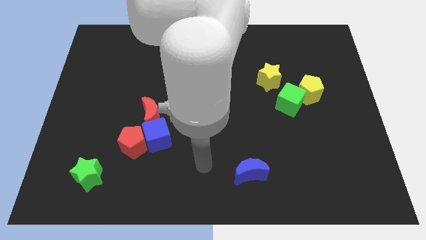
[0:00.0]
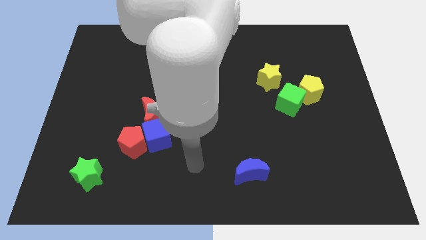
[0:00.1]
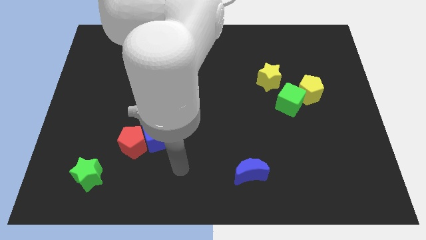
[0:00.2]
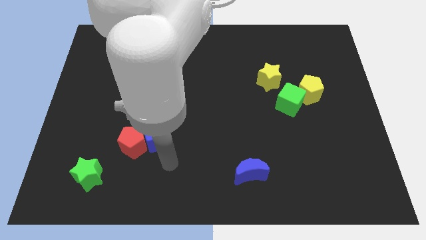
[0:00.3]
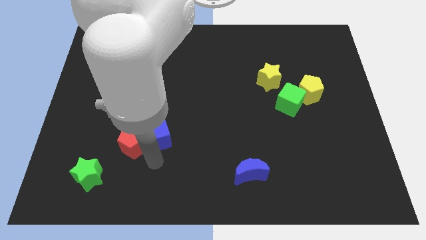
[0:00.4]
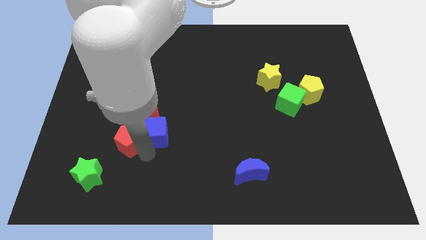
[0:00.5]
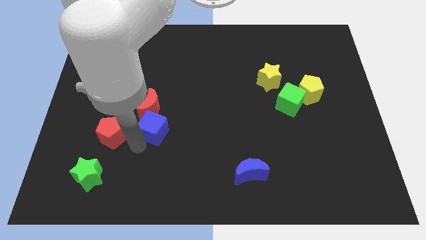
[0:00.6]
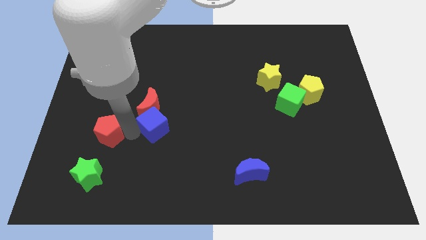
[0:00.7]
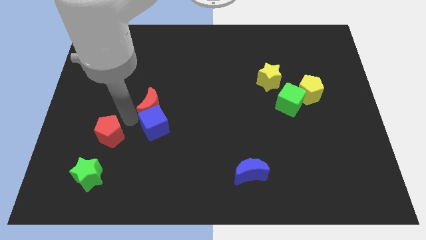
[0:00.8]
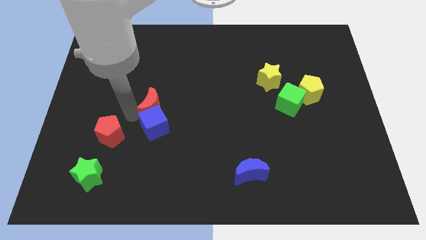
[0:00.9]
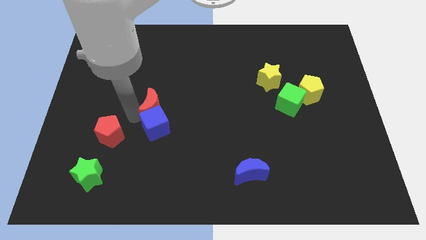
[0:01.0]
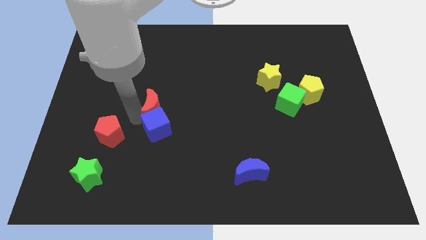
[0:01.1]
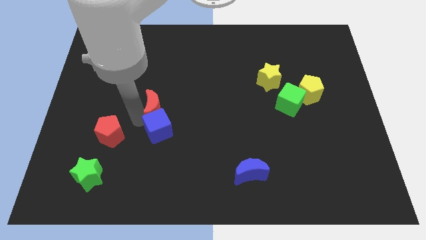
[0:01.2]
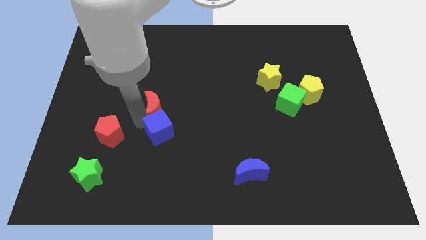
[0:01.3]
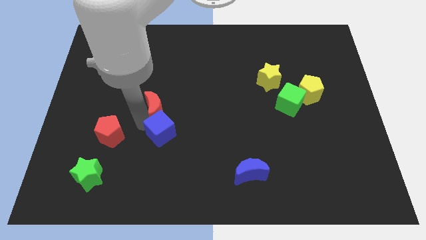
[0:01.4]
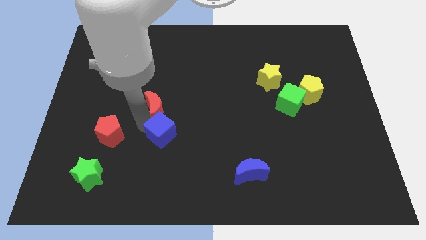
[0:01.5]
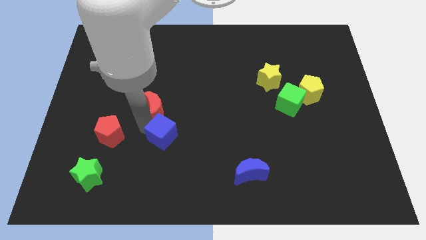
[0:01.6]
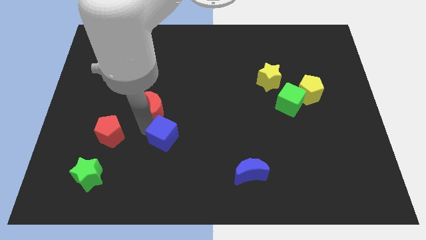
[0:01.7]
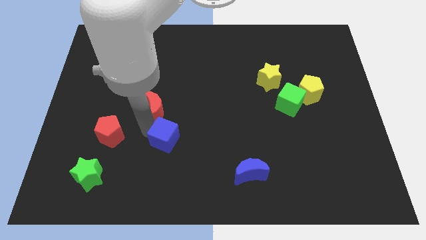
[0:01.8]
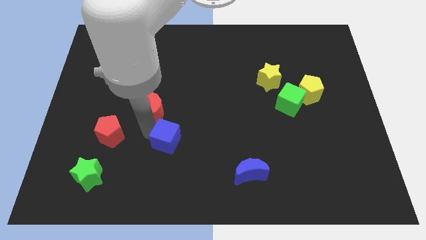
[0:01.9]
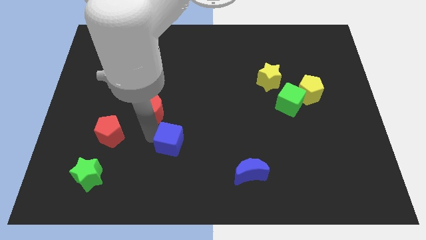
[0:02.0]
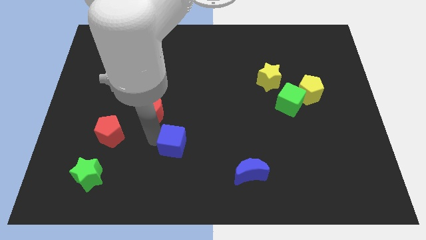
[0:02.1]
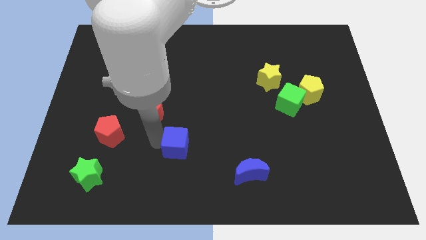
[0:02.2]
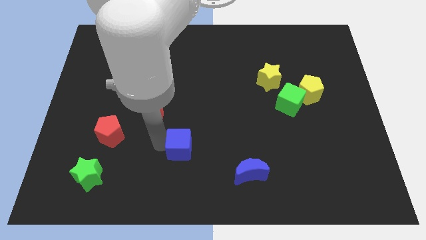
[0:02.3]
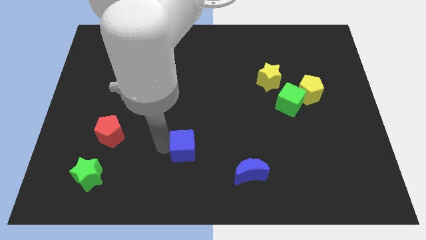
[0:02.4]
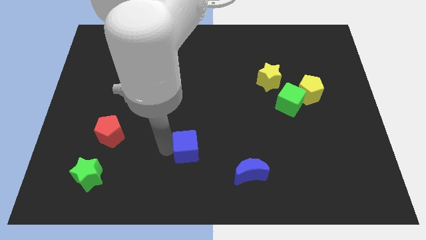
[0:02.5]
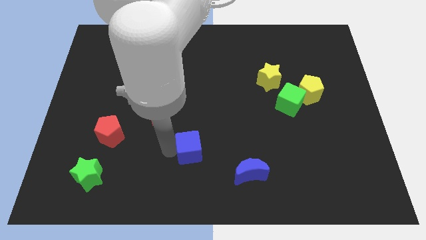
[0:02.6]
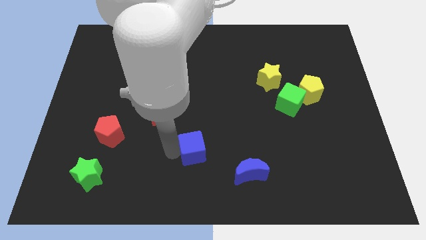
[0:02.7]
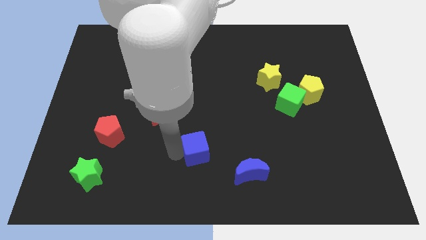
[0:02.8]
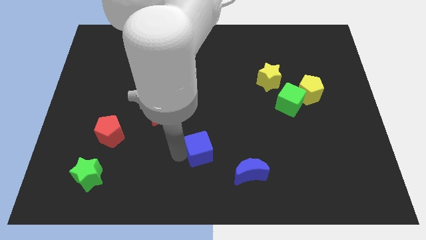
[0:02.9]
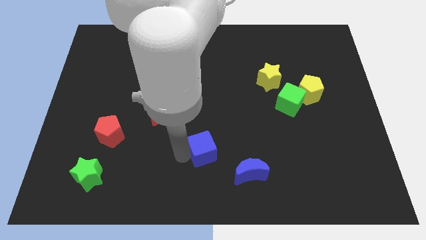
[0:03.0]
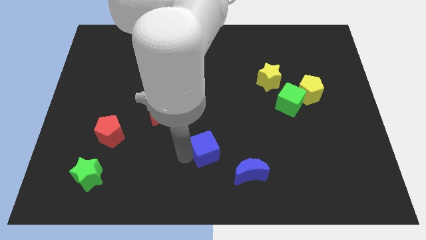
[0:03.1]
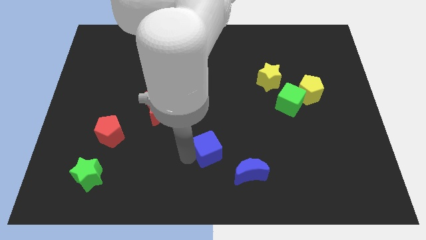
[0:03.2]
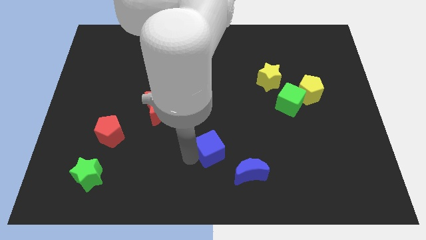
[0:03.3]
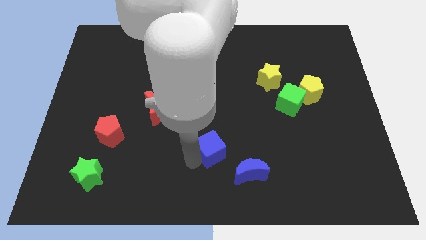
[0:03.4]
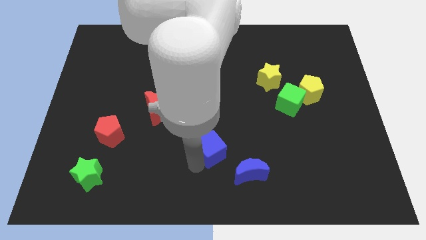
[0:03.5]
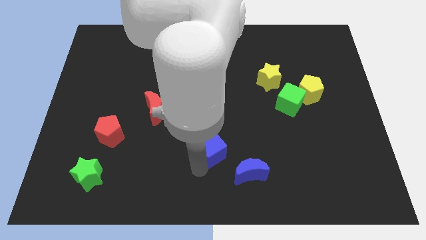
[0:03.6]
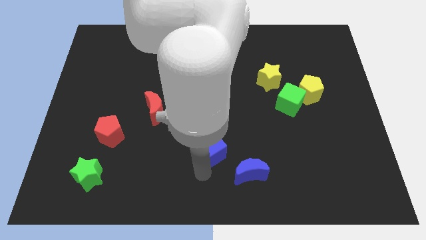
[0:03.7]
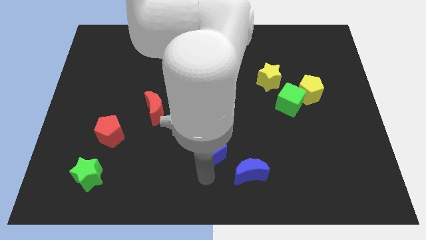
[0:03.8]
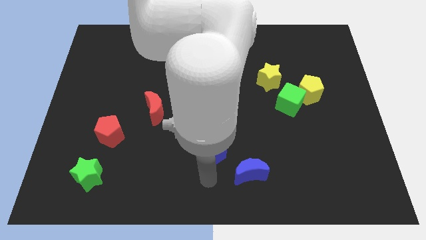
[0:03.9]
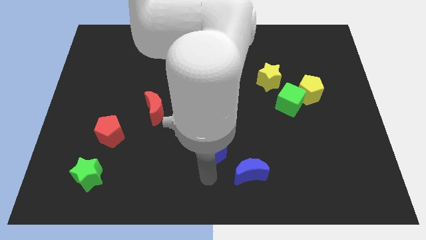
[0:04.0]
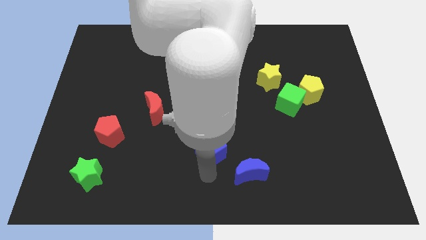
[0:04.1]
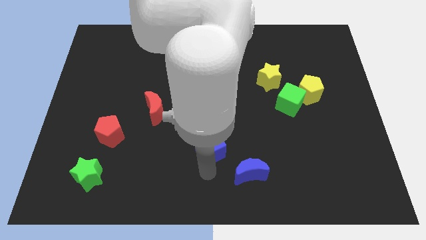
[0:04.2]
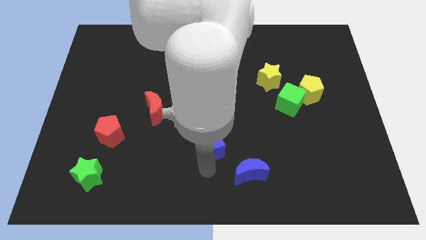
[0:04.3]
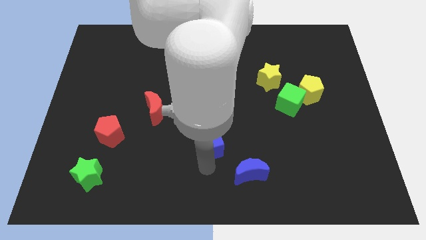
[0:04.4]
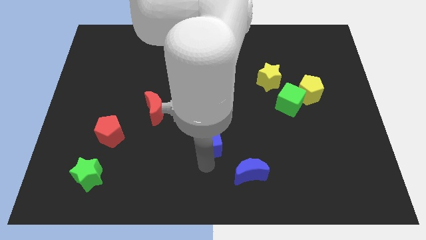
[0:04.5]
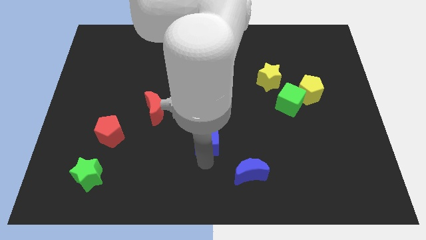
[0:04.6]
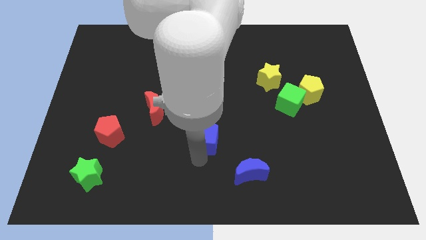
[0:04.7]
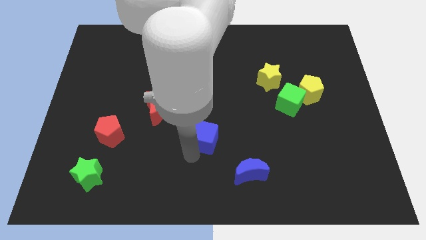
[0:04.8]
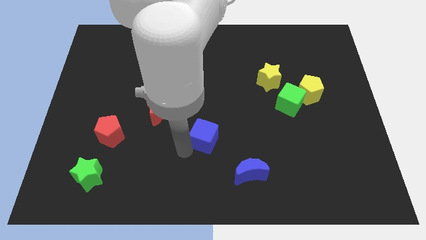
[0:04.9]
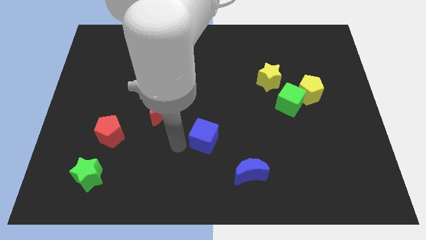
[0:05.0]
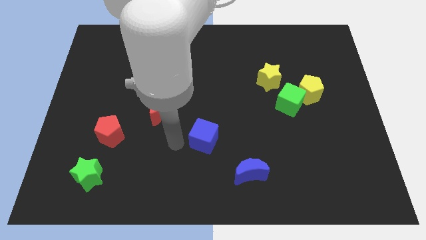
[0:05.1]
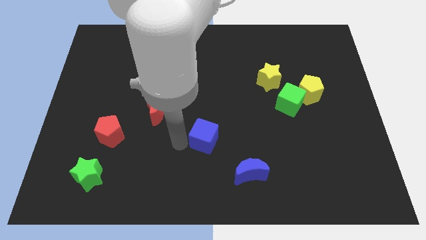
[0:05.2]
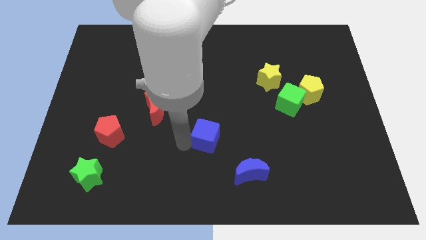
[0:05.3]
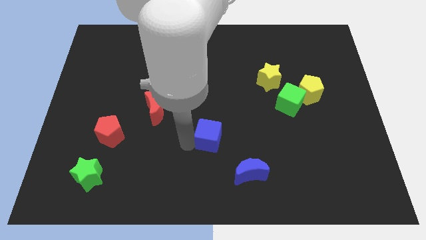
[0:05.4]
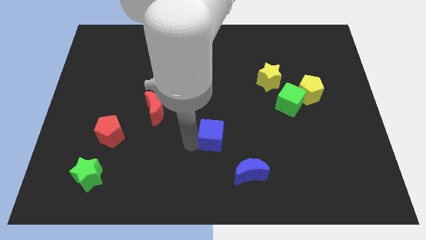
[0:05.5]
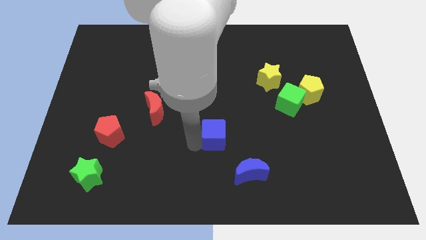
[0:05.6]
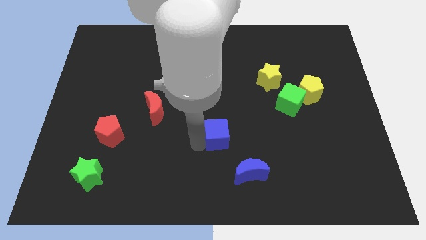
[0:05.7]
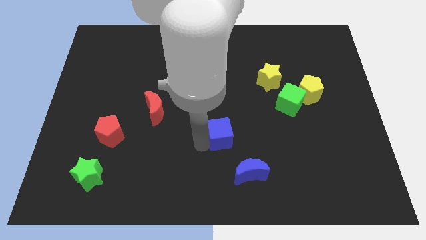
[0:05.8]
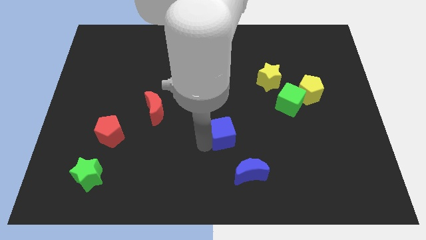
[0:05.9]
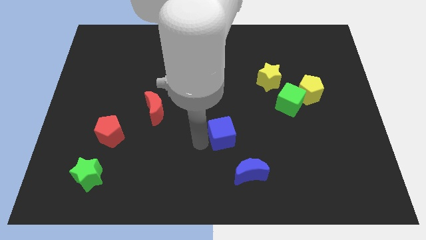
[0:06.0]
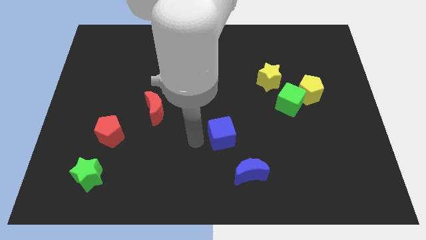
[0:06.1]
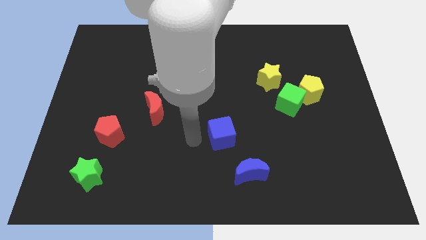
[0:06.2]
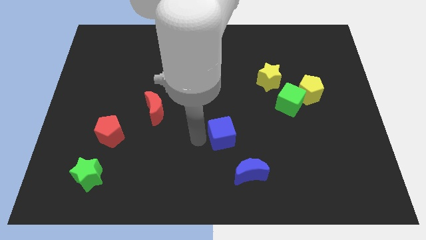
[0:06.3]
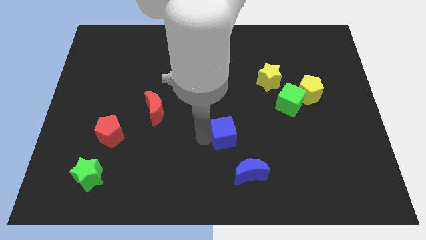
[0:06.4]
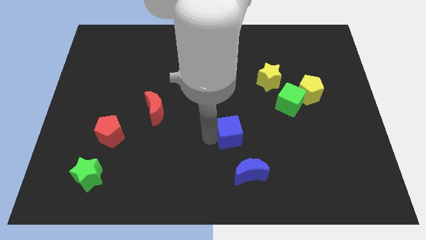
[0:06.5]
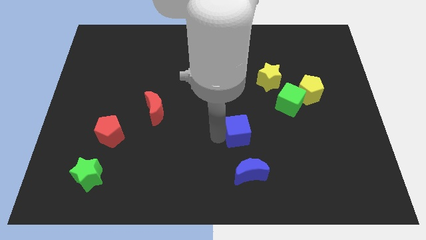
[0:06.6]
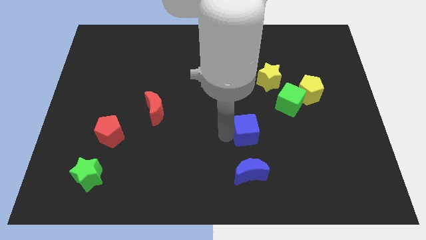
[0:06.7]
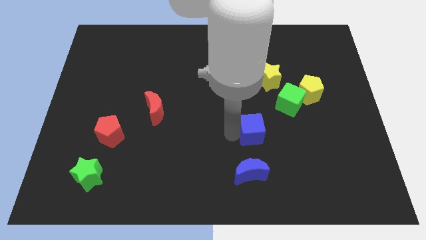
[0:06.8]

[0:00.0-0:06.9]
move the blue cube right

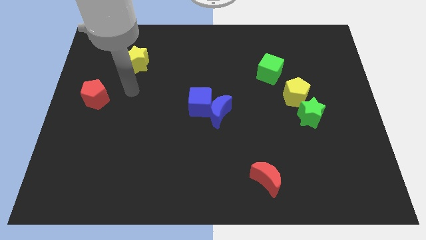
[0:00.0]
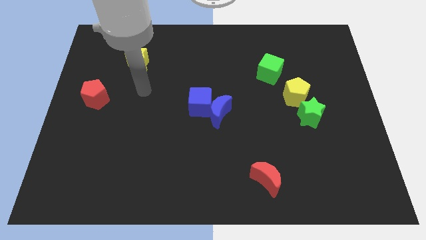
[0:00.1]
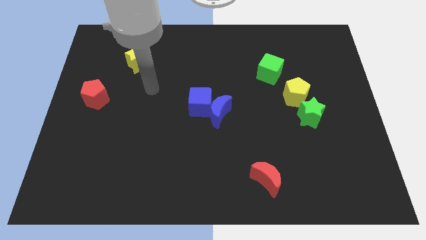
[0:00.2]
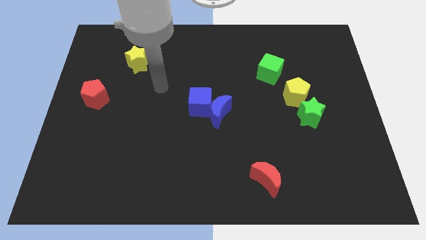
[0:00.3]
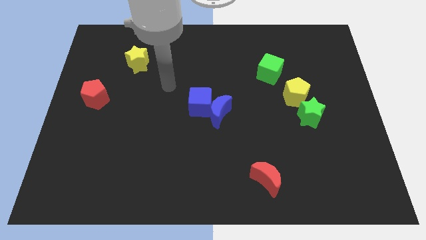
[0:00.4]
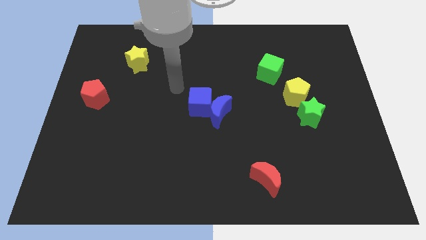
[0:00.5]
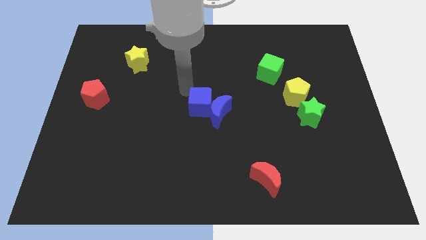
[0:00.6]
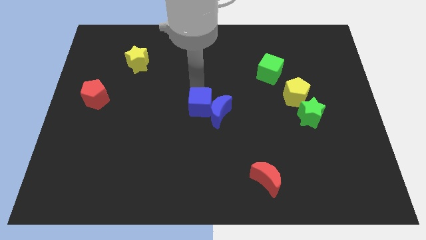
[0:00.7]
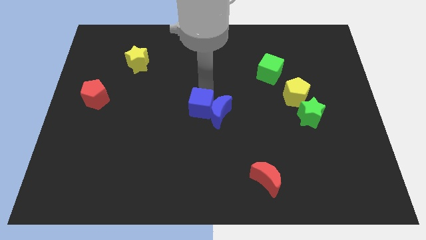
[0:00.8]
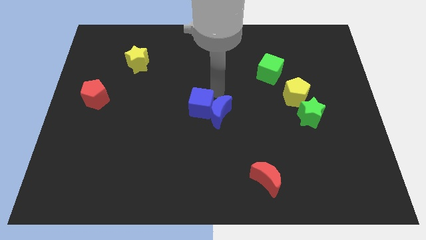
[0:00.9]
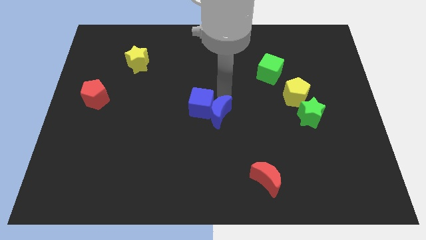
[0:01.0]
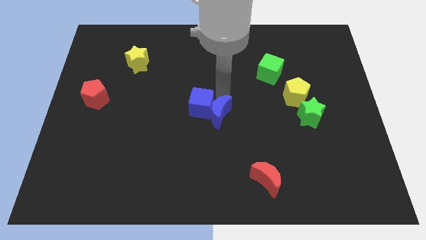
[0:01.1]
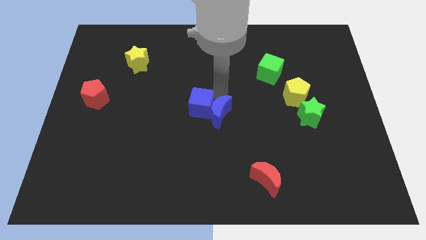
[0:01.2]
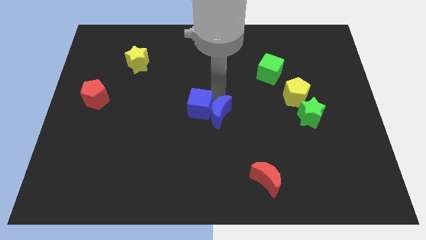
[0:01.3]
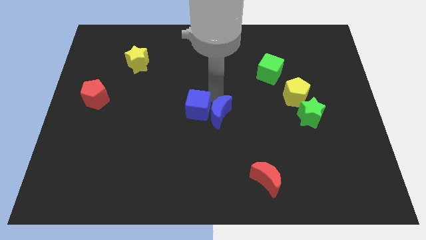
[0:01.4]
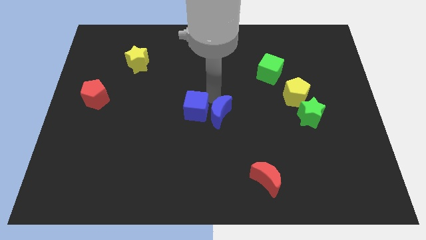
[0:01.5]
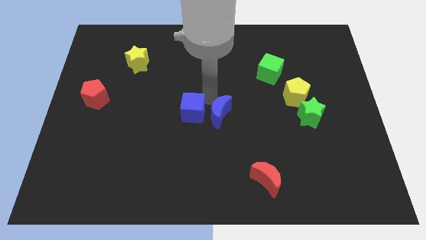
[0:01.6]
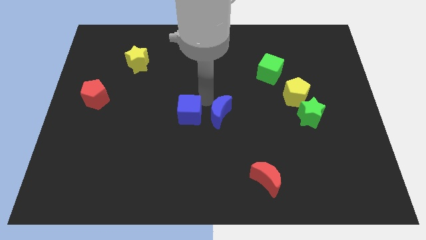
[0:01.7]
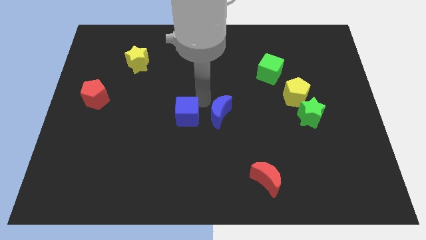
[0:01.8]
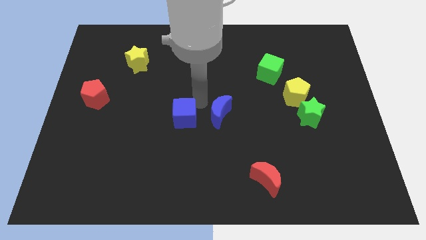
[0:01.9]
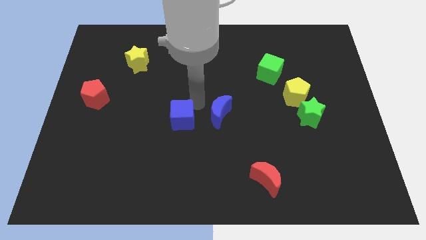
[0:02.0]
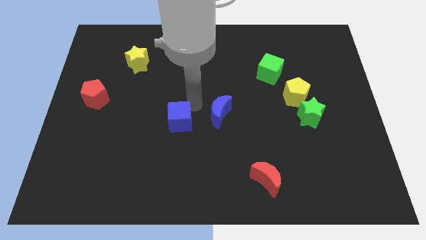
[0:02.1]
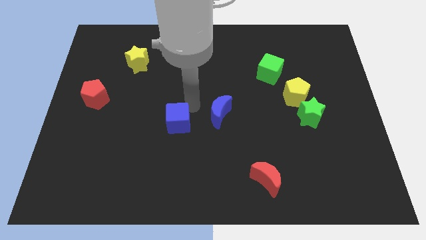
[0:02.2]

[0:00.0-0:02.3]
push the blue cube down and left a little
